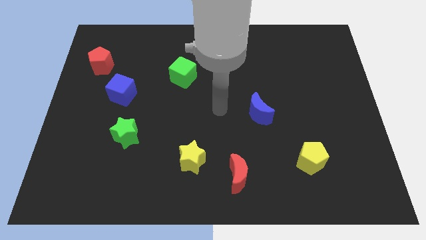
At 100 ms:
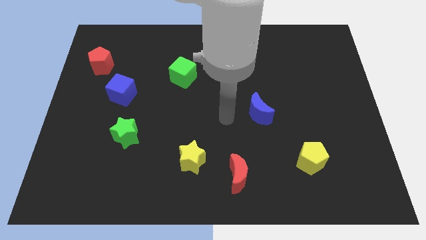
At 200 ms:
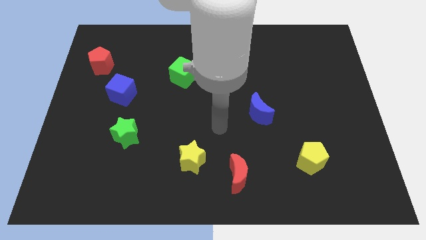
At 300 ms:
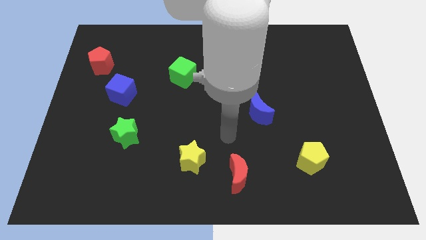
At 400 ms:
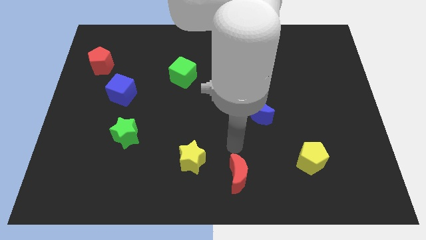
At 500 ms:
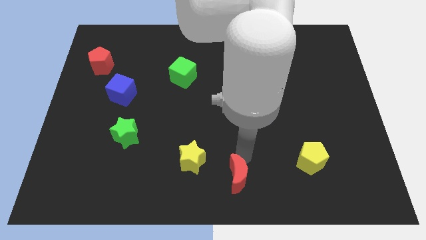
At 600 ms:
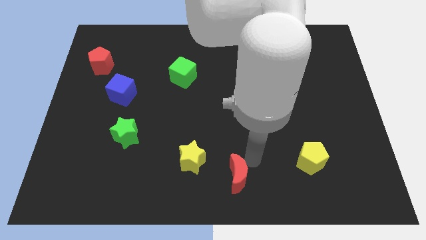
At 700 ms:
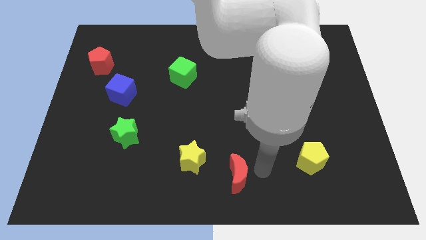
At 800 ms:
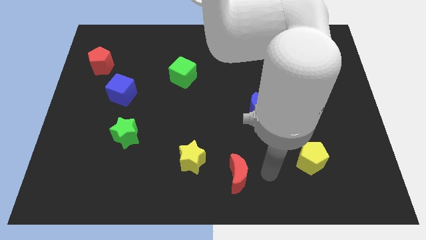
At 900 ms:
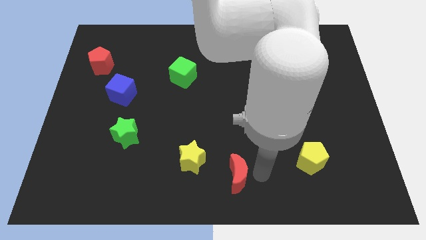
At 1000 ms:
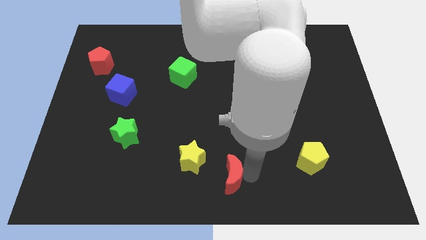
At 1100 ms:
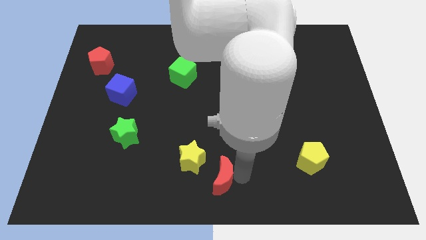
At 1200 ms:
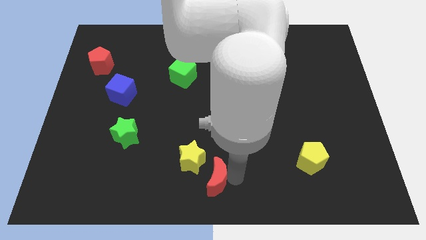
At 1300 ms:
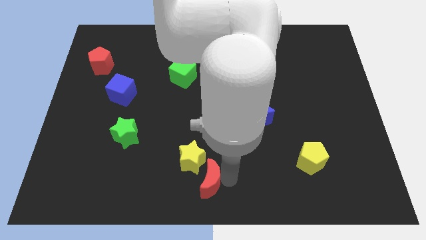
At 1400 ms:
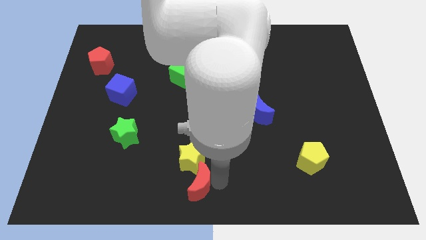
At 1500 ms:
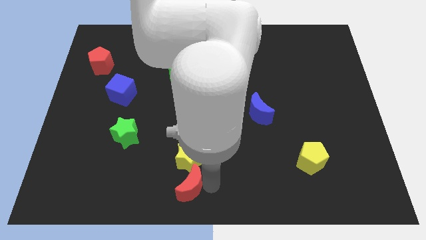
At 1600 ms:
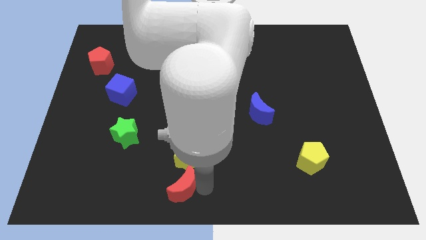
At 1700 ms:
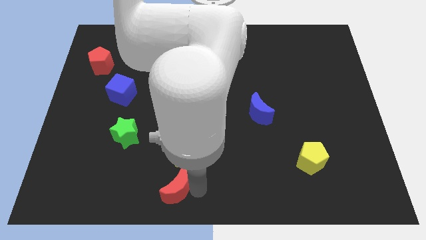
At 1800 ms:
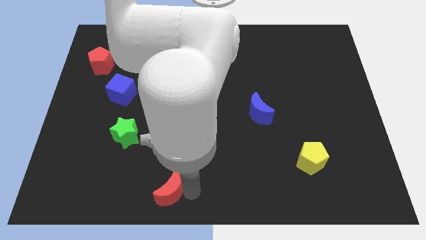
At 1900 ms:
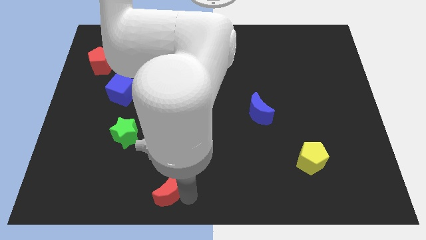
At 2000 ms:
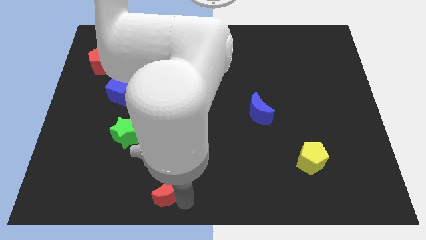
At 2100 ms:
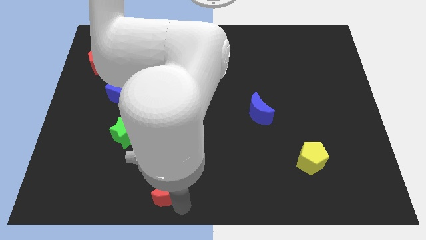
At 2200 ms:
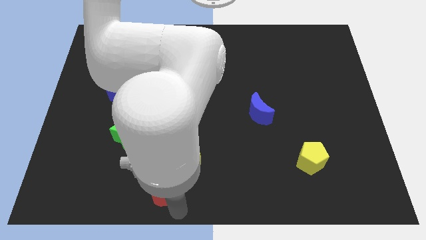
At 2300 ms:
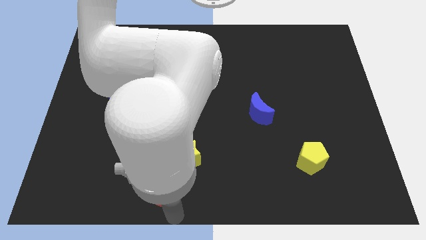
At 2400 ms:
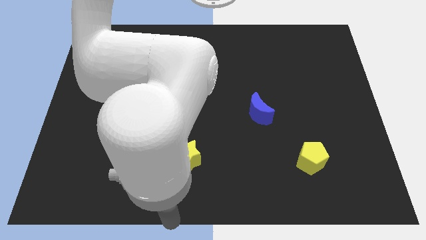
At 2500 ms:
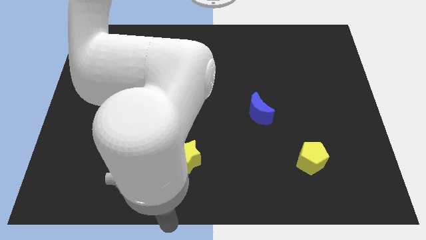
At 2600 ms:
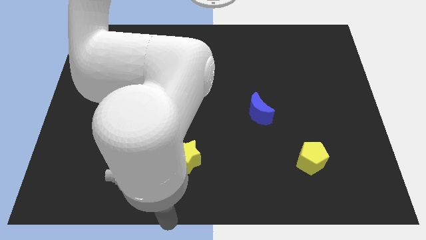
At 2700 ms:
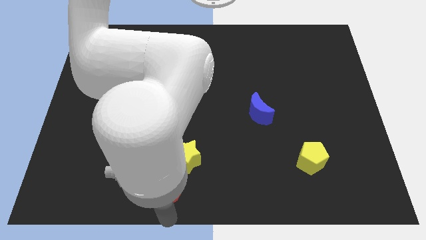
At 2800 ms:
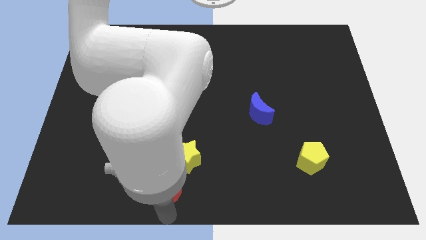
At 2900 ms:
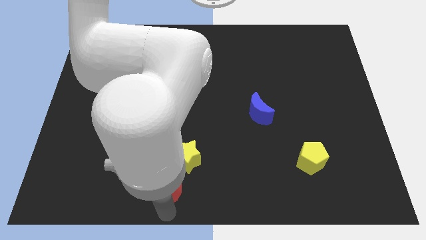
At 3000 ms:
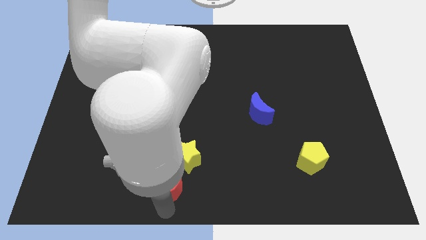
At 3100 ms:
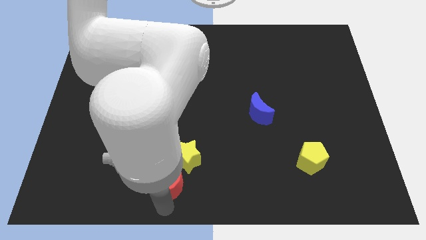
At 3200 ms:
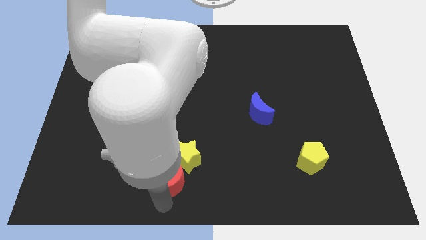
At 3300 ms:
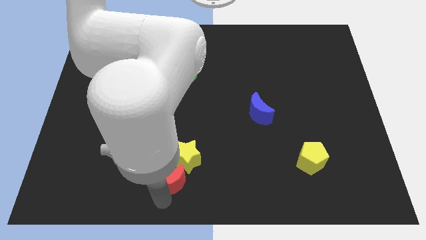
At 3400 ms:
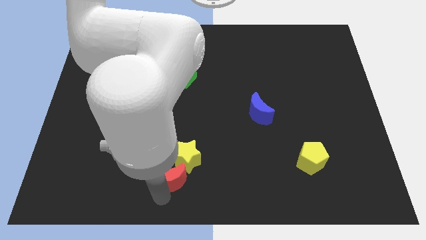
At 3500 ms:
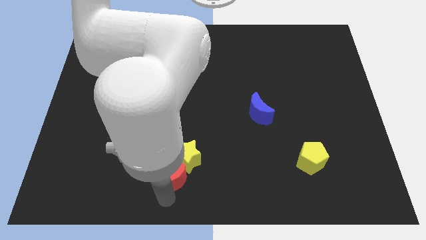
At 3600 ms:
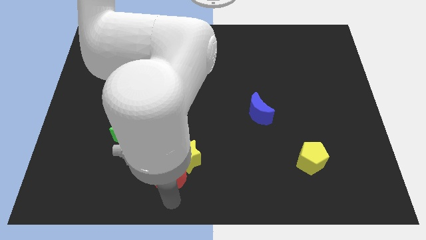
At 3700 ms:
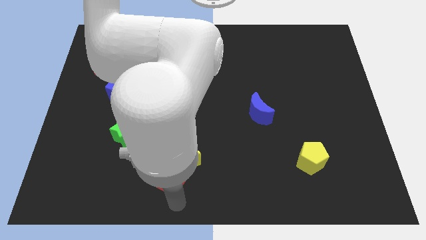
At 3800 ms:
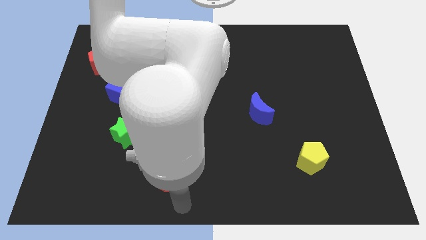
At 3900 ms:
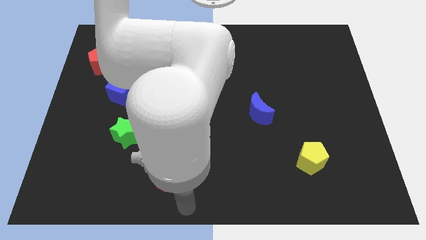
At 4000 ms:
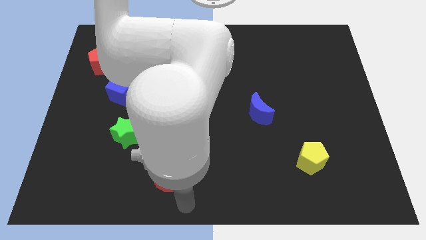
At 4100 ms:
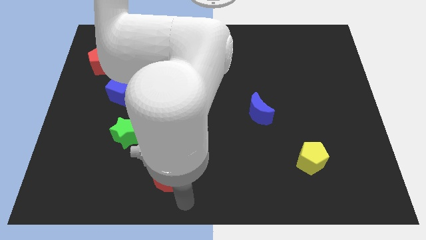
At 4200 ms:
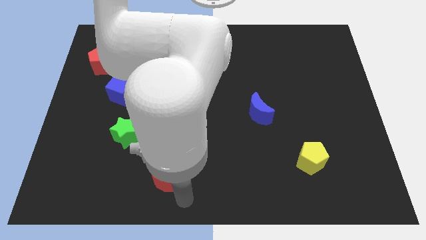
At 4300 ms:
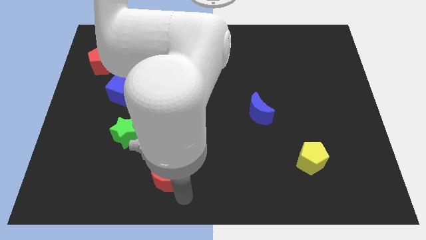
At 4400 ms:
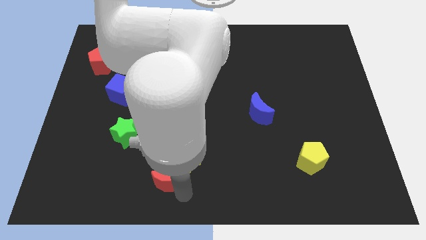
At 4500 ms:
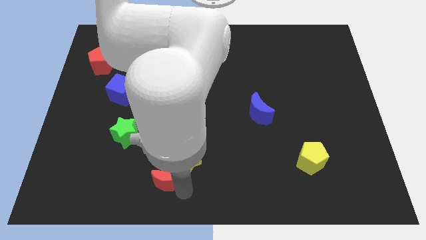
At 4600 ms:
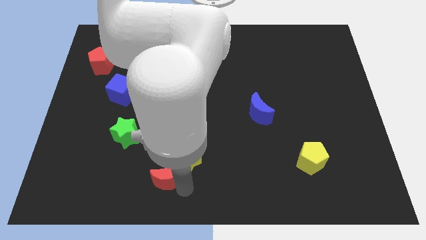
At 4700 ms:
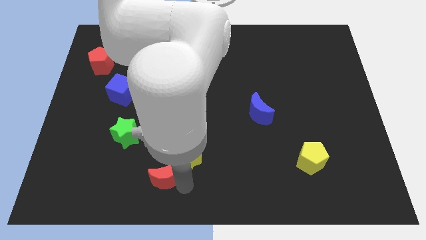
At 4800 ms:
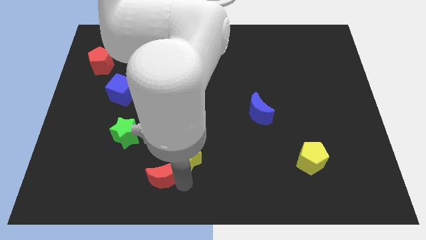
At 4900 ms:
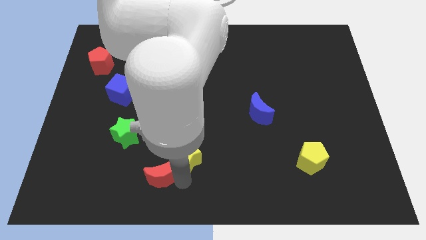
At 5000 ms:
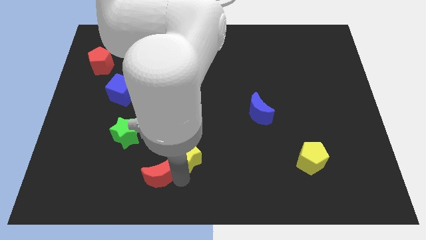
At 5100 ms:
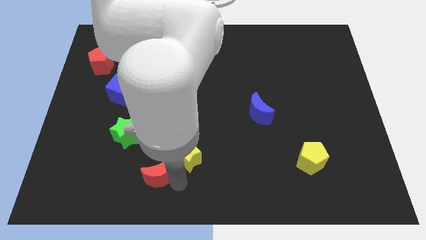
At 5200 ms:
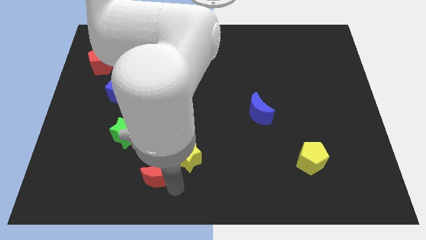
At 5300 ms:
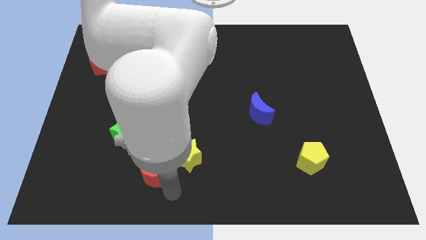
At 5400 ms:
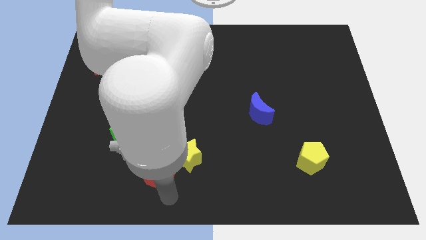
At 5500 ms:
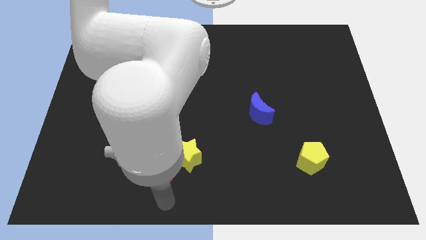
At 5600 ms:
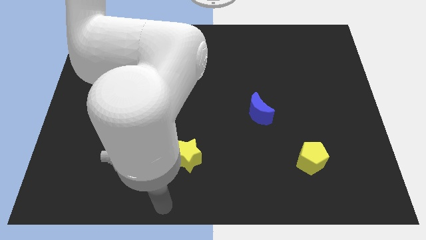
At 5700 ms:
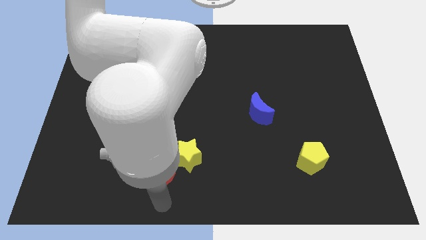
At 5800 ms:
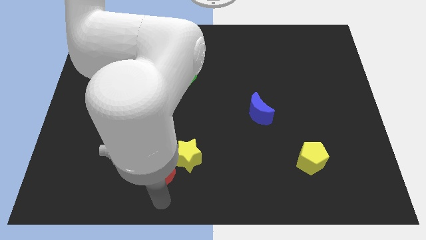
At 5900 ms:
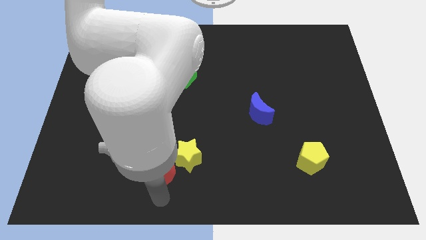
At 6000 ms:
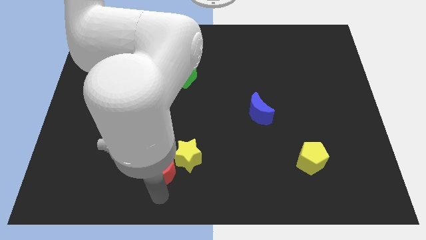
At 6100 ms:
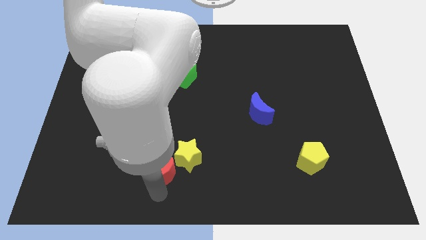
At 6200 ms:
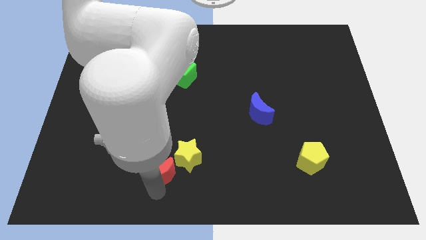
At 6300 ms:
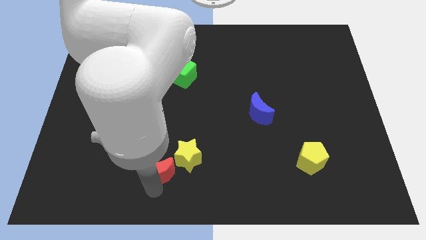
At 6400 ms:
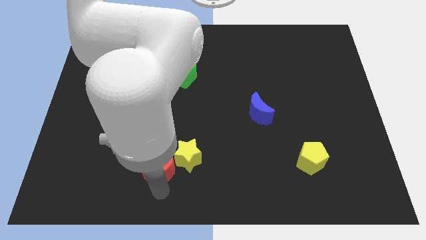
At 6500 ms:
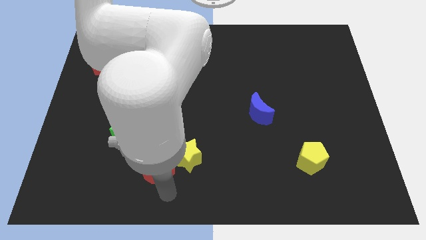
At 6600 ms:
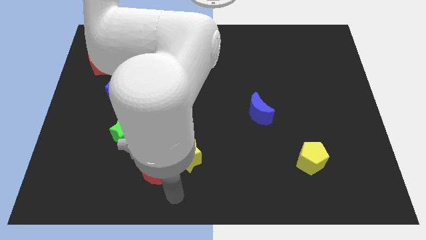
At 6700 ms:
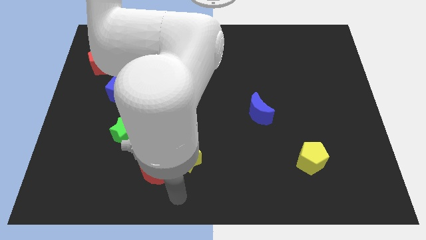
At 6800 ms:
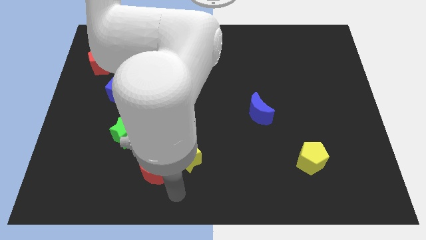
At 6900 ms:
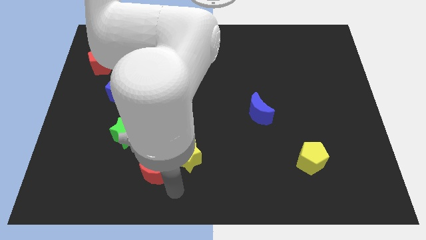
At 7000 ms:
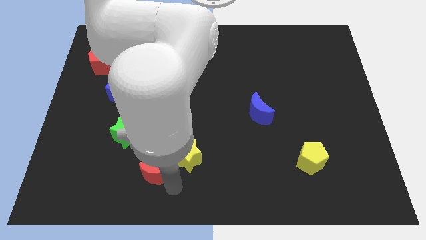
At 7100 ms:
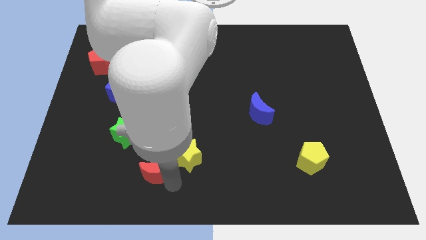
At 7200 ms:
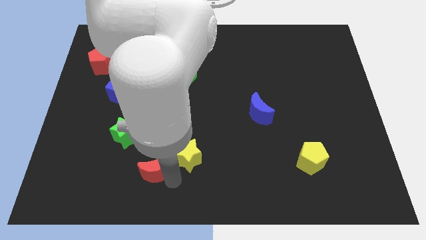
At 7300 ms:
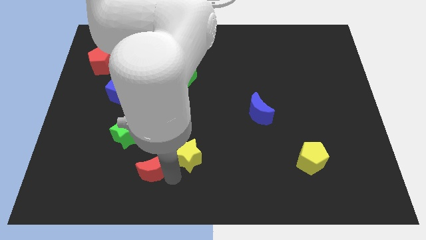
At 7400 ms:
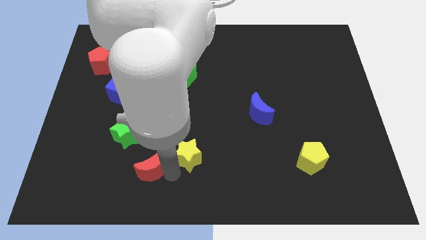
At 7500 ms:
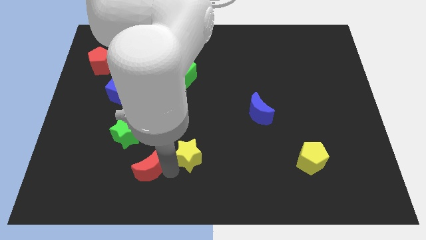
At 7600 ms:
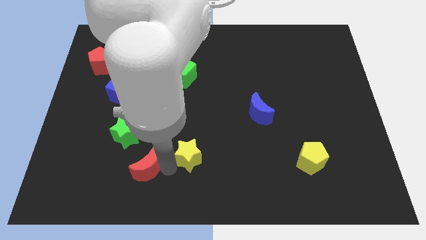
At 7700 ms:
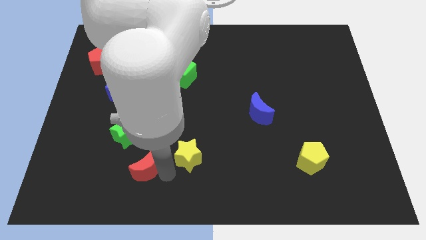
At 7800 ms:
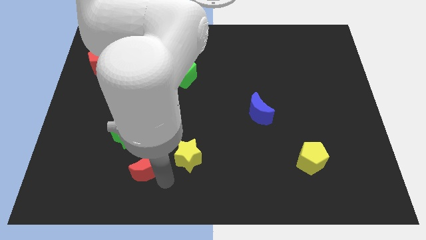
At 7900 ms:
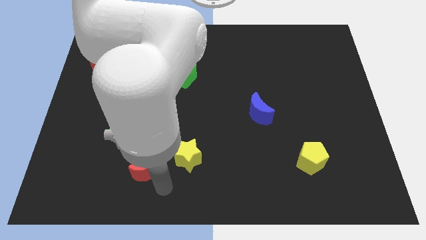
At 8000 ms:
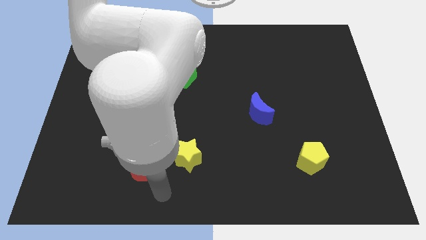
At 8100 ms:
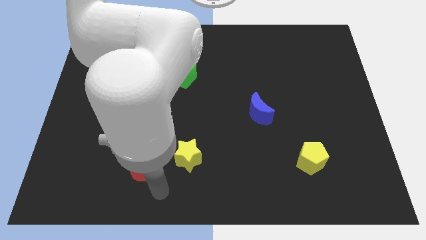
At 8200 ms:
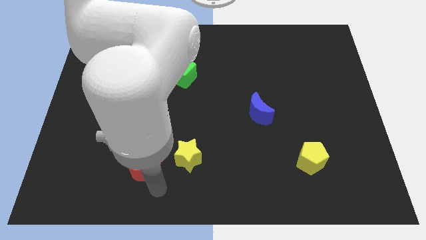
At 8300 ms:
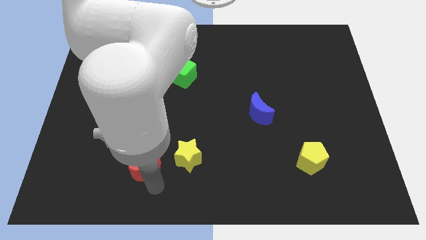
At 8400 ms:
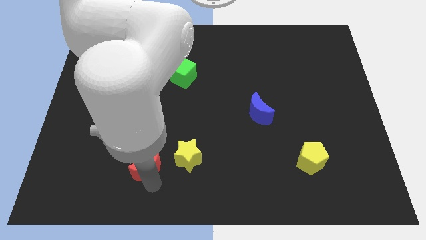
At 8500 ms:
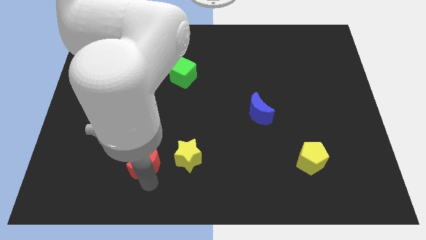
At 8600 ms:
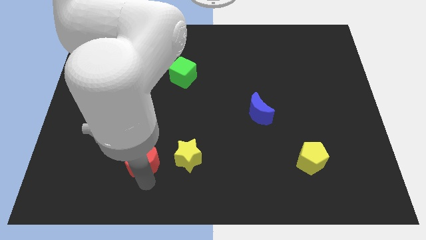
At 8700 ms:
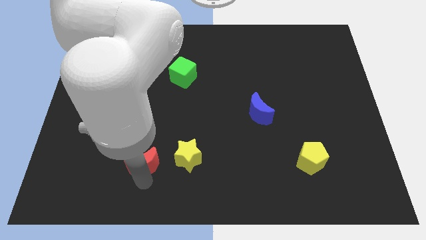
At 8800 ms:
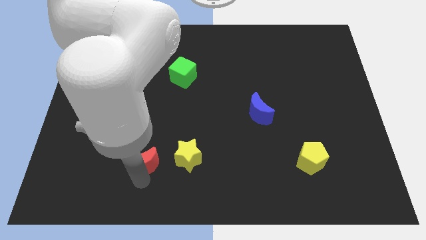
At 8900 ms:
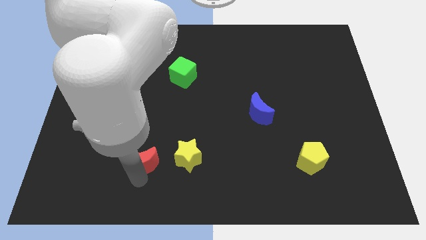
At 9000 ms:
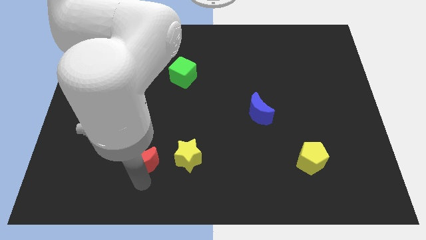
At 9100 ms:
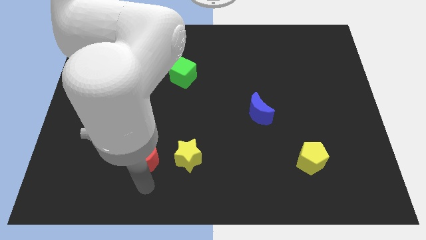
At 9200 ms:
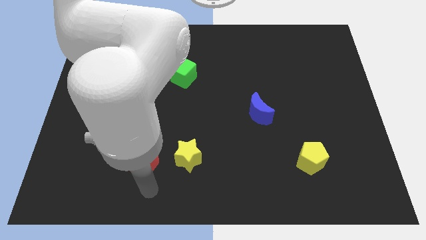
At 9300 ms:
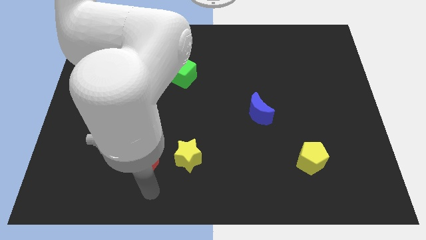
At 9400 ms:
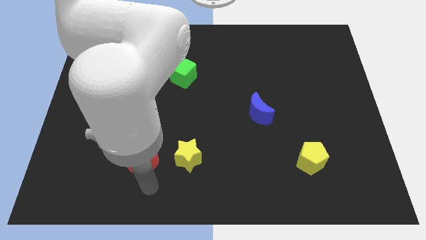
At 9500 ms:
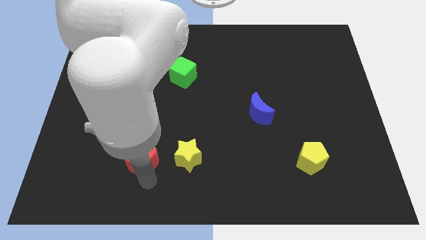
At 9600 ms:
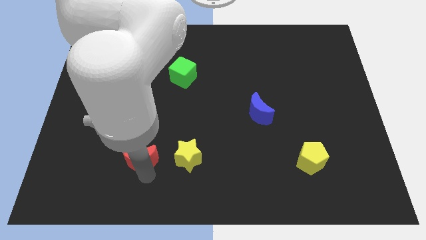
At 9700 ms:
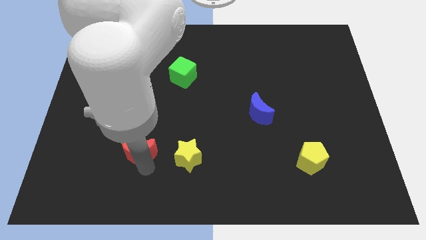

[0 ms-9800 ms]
push the red moon to the green star
